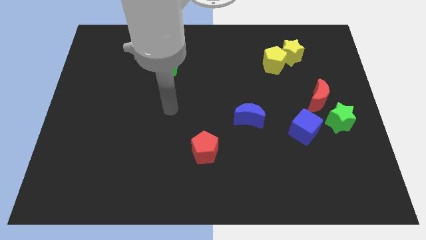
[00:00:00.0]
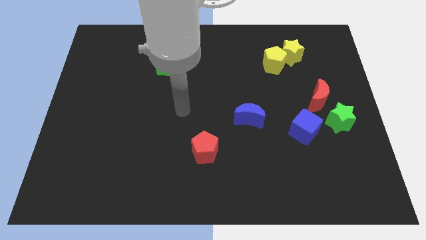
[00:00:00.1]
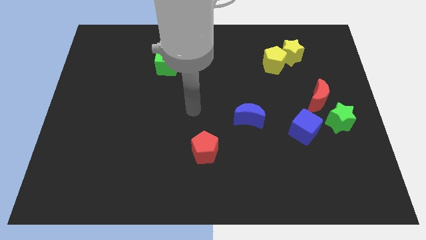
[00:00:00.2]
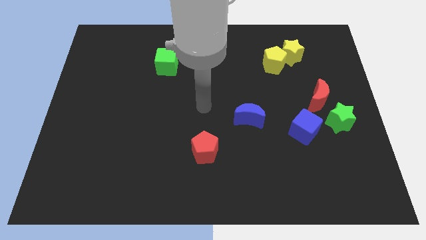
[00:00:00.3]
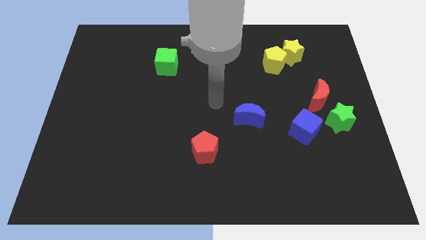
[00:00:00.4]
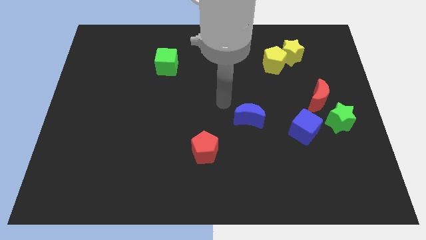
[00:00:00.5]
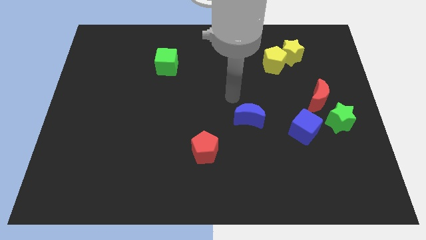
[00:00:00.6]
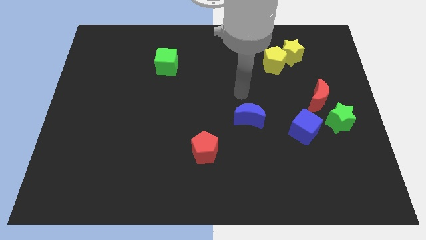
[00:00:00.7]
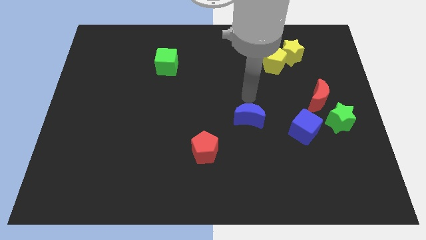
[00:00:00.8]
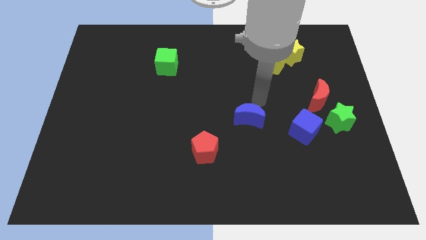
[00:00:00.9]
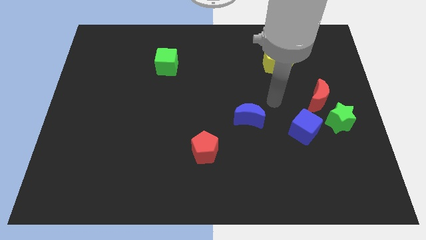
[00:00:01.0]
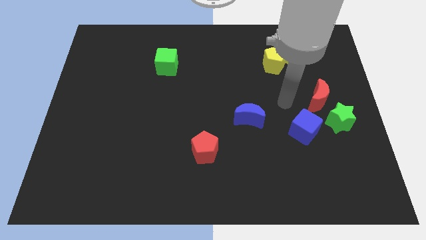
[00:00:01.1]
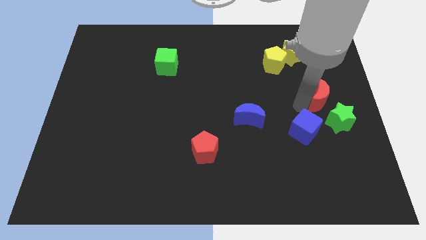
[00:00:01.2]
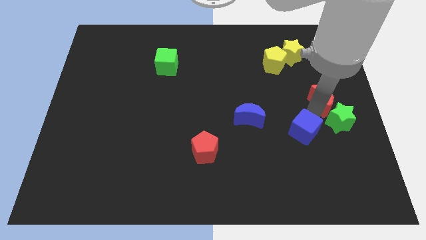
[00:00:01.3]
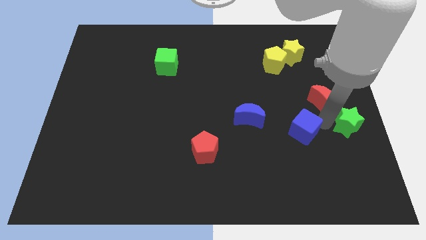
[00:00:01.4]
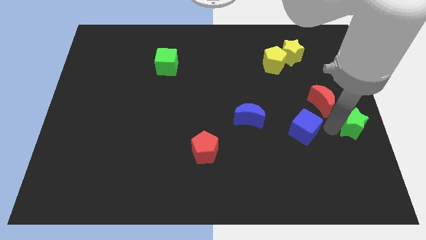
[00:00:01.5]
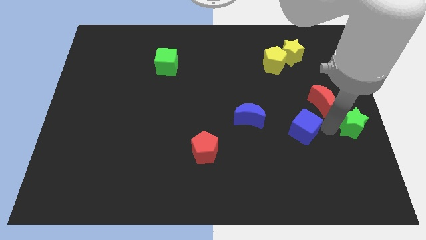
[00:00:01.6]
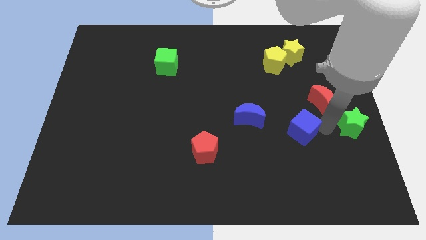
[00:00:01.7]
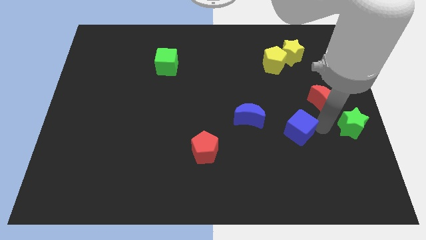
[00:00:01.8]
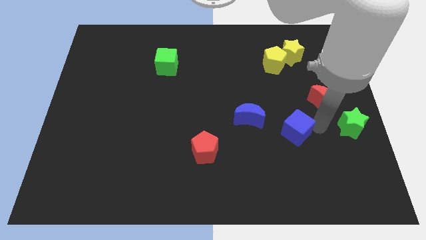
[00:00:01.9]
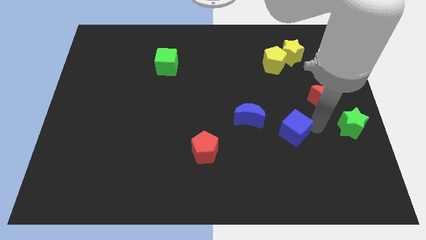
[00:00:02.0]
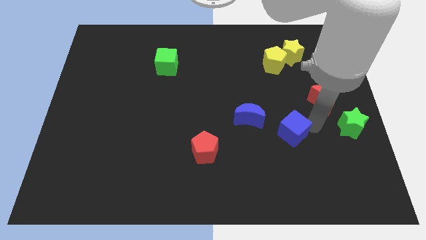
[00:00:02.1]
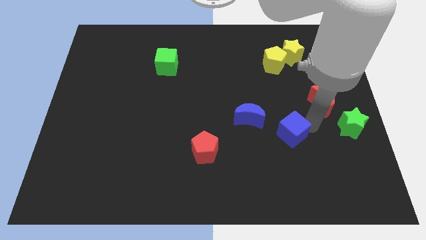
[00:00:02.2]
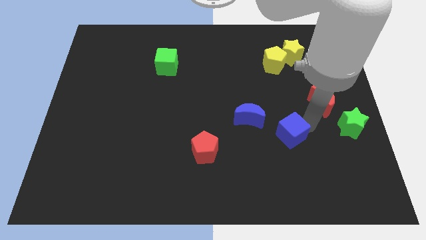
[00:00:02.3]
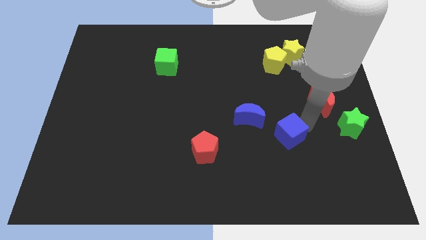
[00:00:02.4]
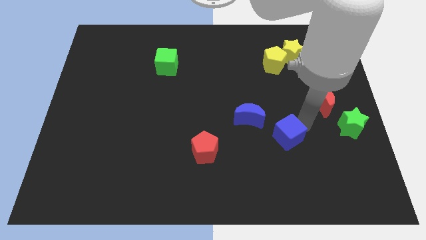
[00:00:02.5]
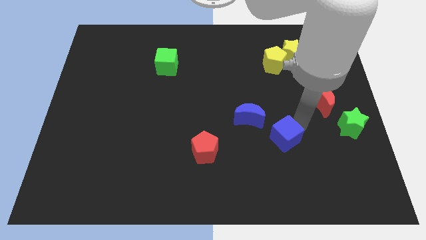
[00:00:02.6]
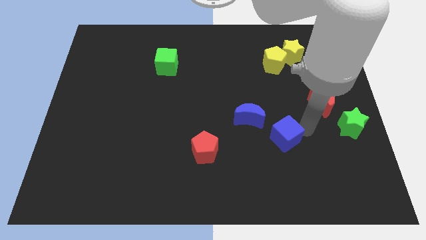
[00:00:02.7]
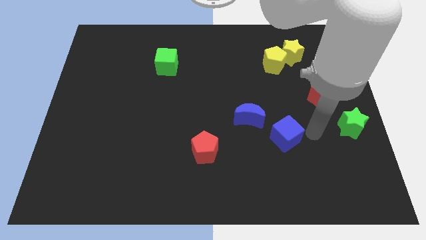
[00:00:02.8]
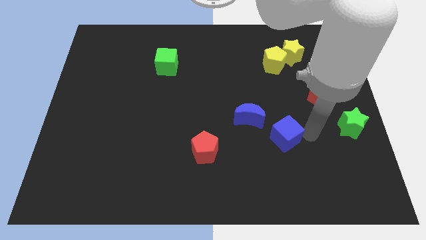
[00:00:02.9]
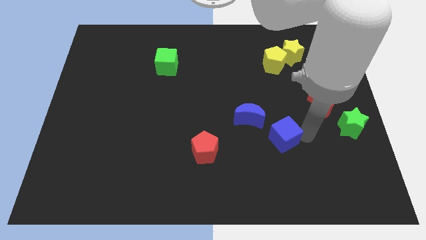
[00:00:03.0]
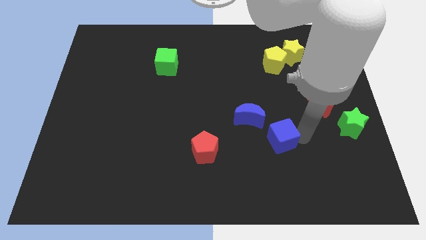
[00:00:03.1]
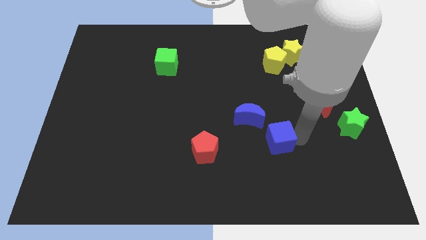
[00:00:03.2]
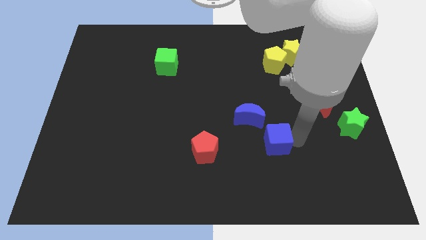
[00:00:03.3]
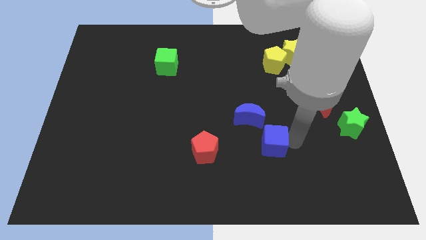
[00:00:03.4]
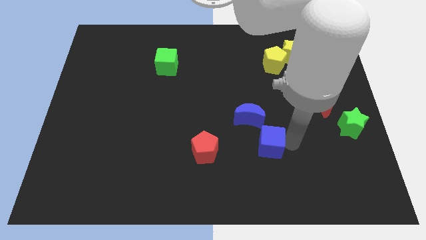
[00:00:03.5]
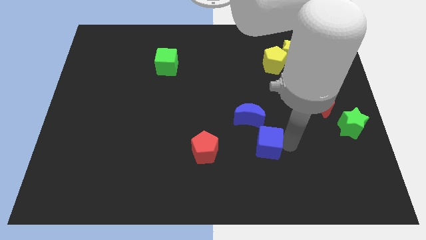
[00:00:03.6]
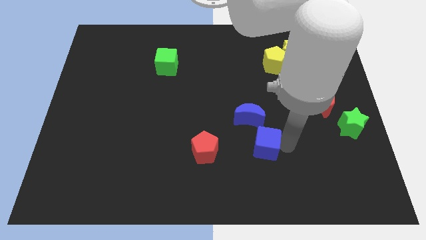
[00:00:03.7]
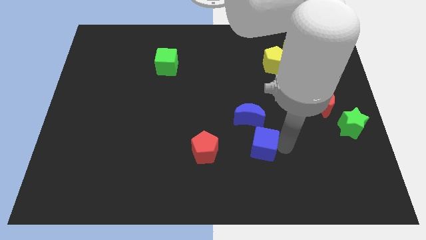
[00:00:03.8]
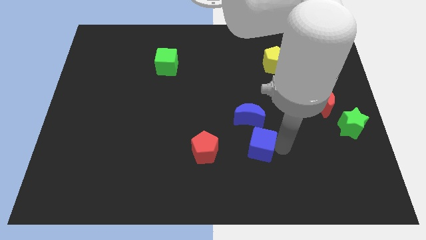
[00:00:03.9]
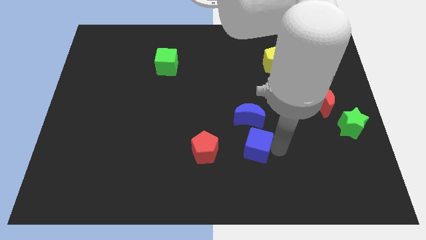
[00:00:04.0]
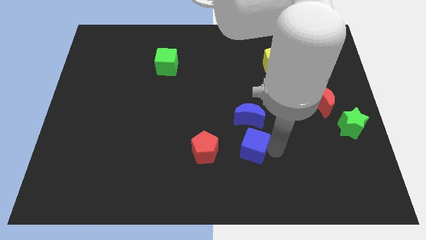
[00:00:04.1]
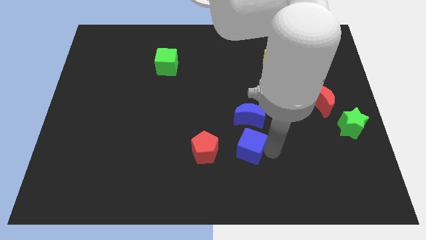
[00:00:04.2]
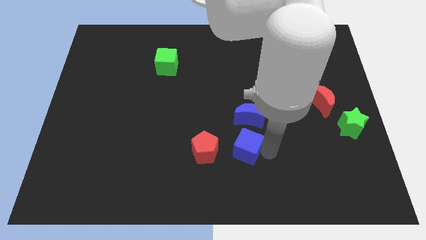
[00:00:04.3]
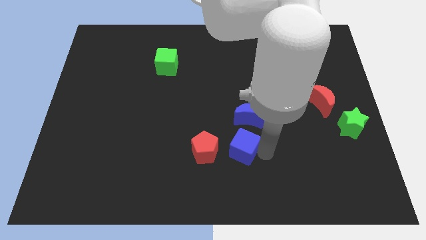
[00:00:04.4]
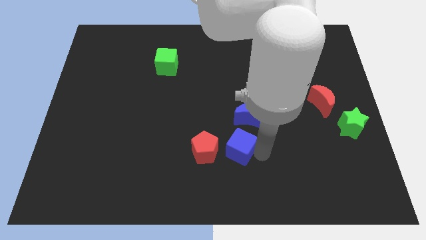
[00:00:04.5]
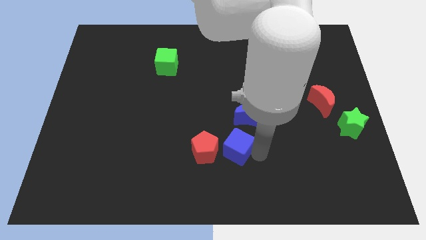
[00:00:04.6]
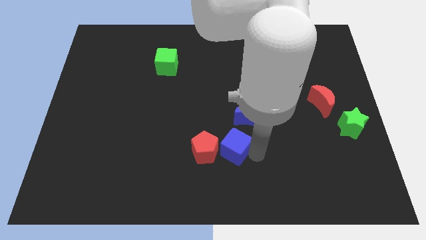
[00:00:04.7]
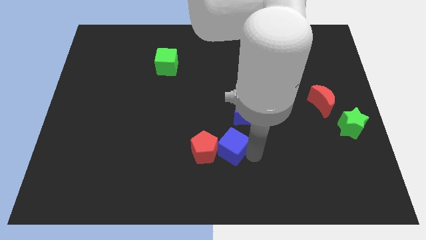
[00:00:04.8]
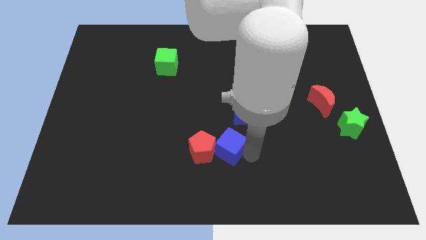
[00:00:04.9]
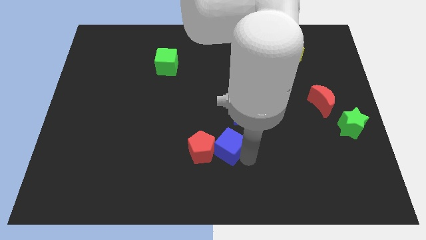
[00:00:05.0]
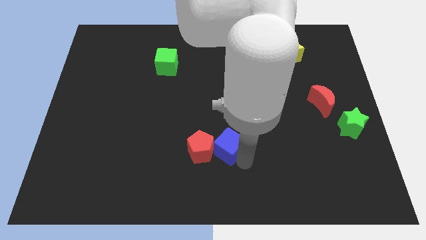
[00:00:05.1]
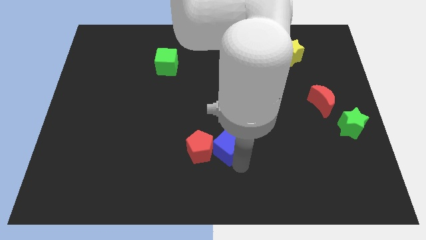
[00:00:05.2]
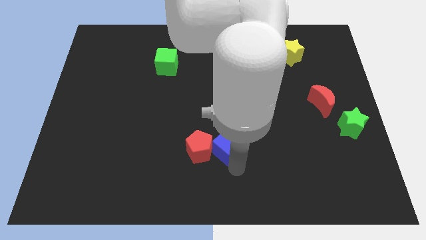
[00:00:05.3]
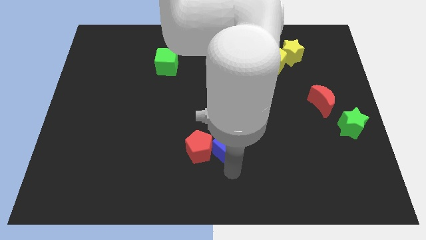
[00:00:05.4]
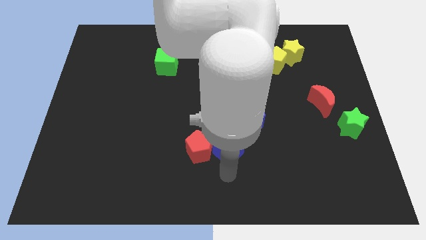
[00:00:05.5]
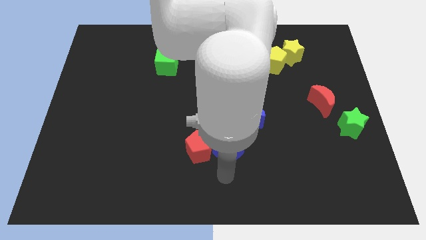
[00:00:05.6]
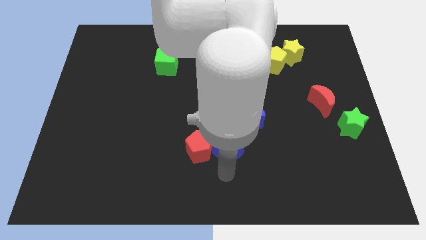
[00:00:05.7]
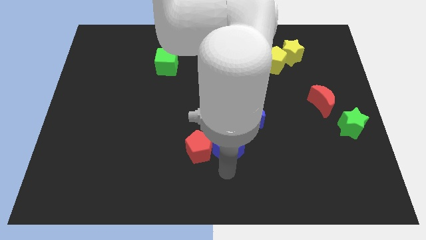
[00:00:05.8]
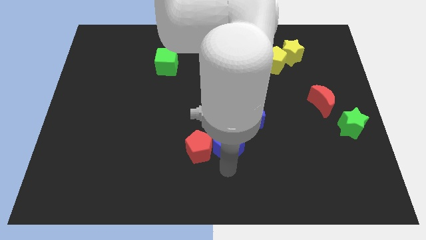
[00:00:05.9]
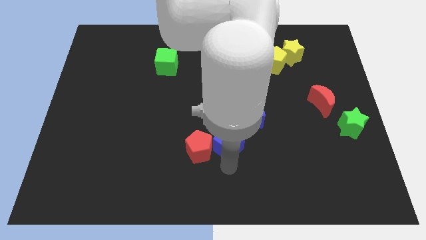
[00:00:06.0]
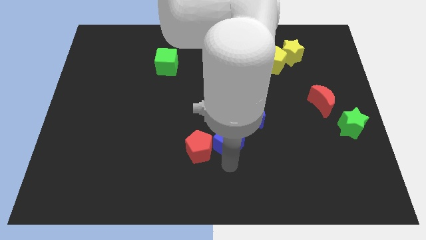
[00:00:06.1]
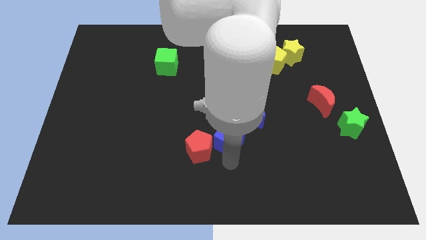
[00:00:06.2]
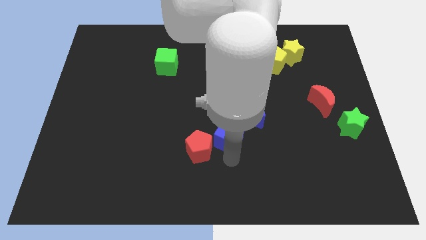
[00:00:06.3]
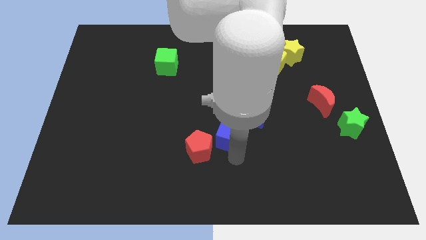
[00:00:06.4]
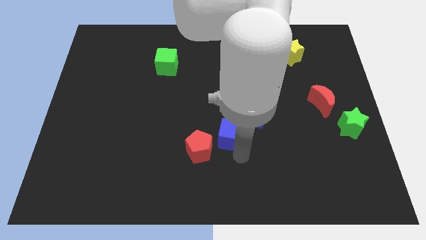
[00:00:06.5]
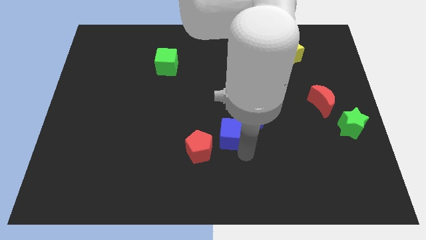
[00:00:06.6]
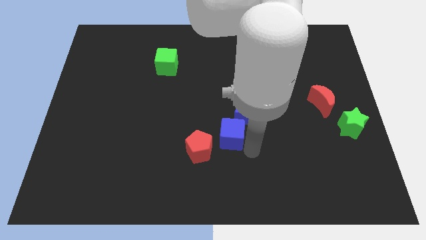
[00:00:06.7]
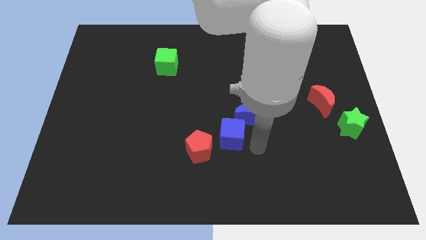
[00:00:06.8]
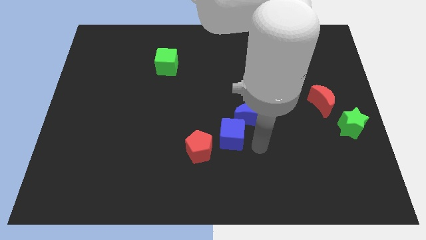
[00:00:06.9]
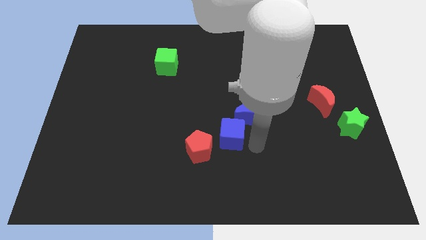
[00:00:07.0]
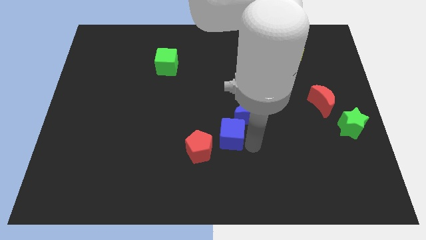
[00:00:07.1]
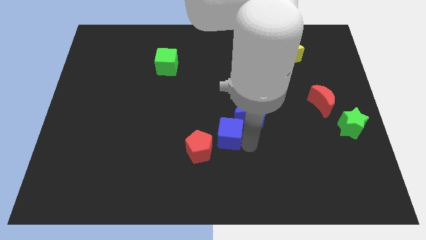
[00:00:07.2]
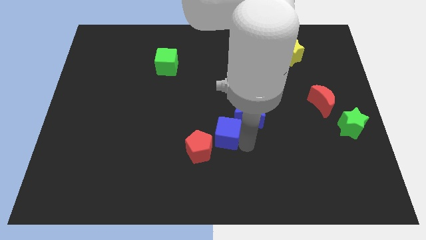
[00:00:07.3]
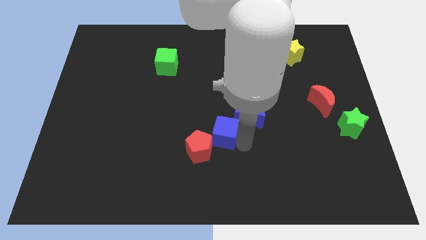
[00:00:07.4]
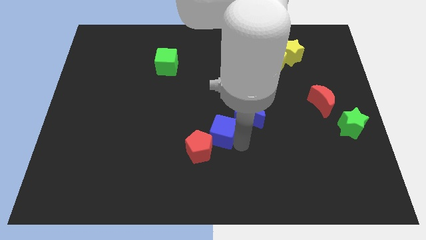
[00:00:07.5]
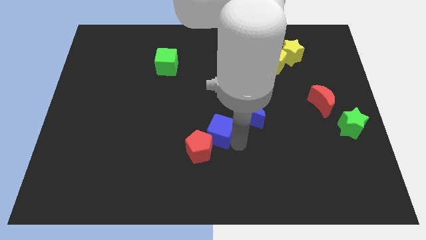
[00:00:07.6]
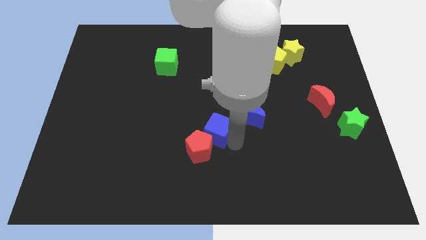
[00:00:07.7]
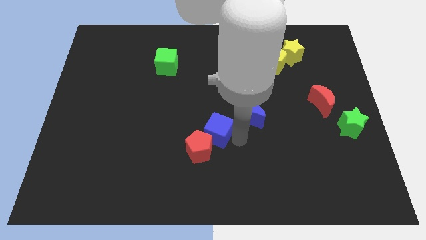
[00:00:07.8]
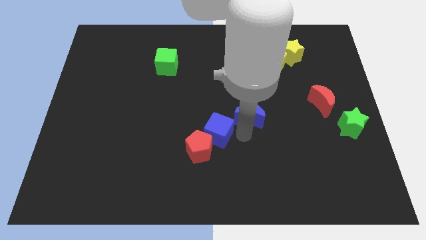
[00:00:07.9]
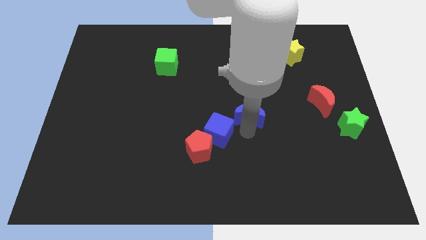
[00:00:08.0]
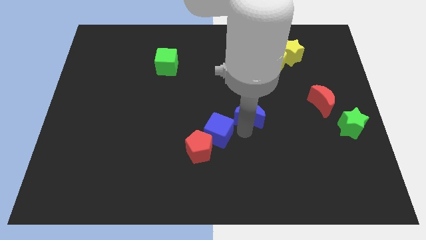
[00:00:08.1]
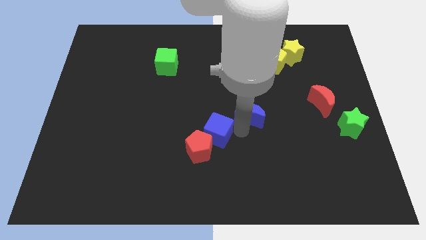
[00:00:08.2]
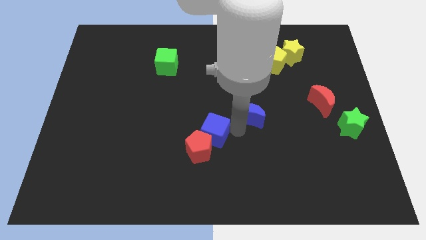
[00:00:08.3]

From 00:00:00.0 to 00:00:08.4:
push the blue cube to the left
